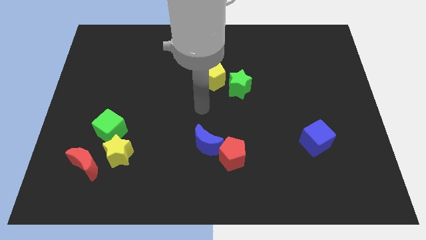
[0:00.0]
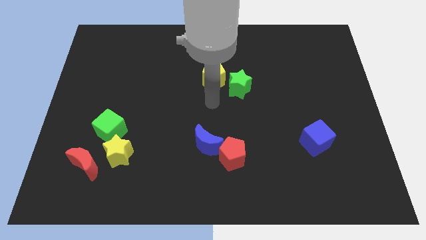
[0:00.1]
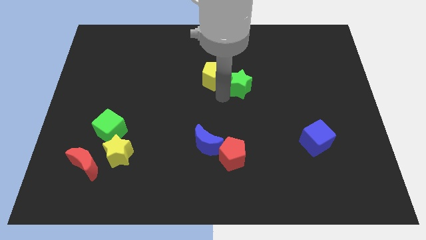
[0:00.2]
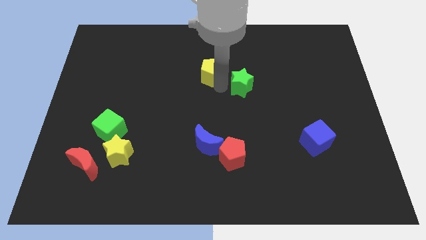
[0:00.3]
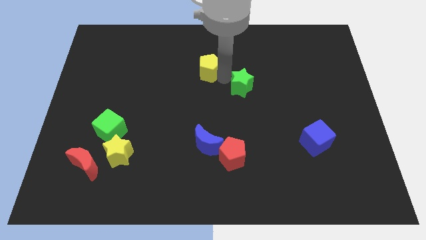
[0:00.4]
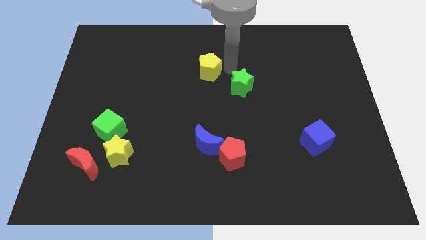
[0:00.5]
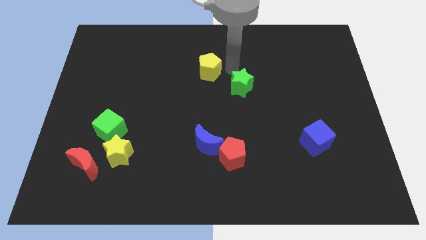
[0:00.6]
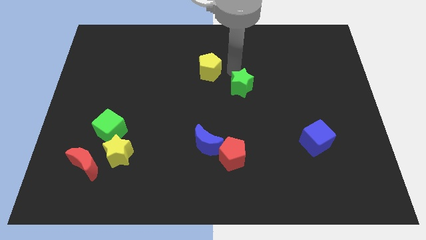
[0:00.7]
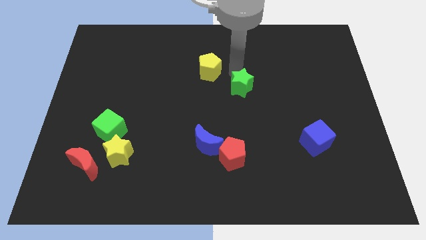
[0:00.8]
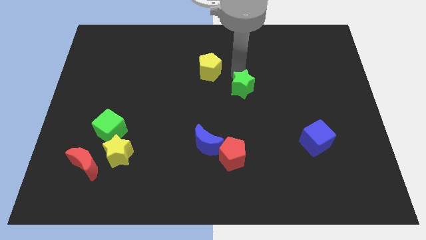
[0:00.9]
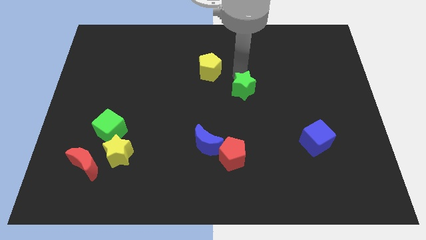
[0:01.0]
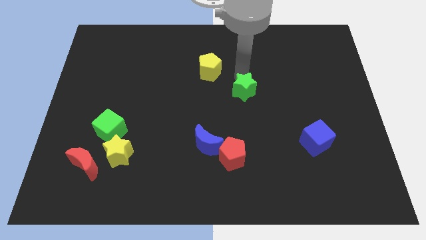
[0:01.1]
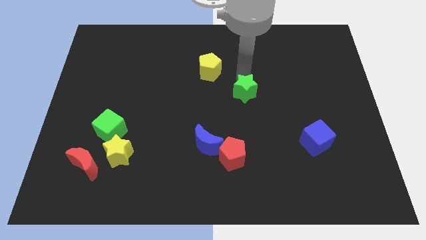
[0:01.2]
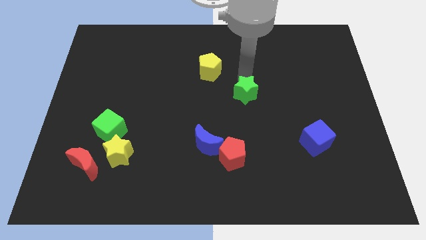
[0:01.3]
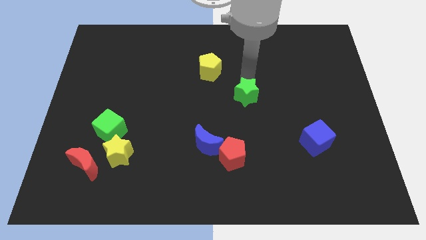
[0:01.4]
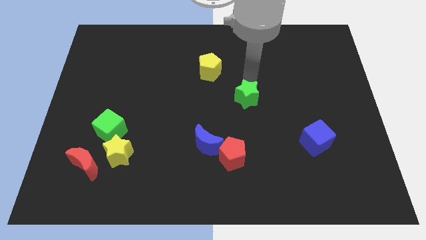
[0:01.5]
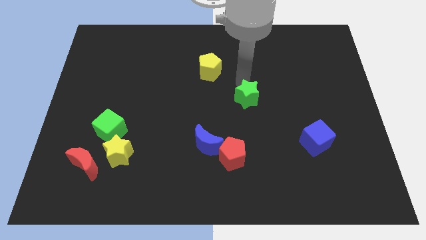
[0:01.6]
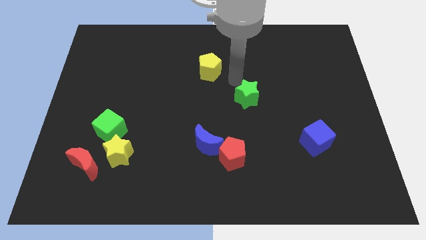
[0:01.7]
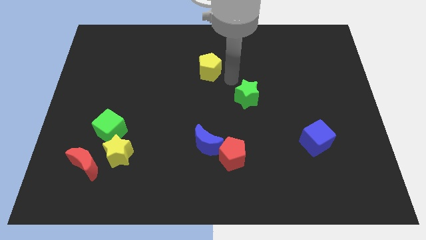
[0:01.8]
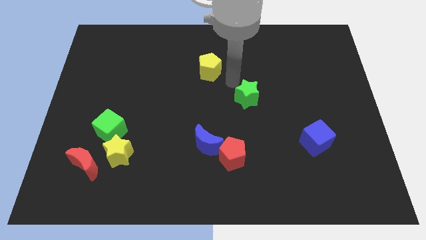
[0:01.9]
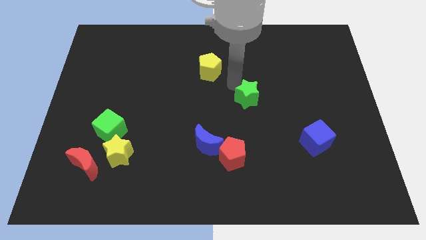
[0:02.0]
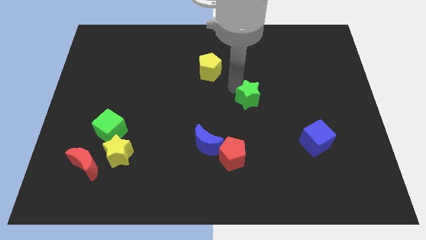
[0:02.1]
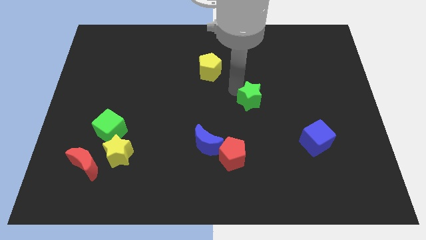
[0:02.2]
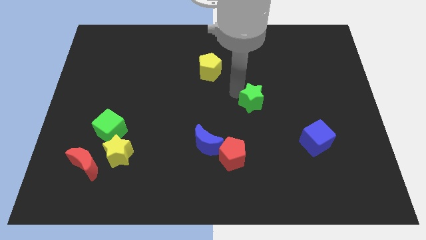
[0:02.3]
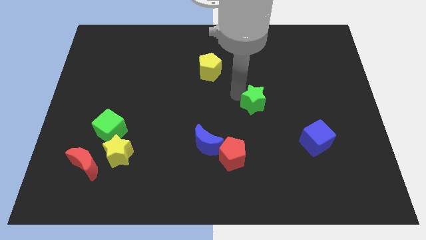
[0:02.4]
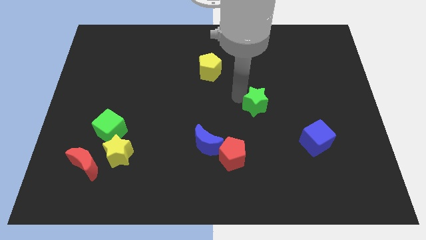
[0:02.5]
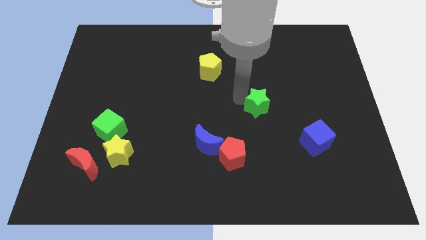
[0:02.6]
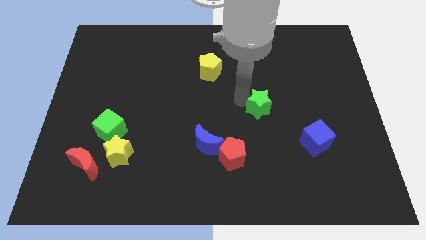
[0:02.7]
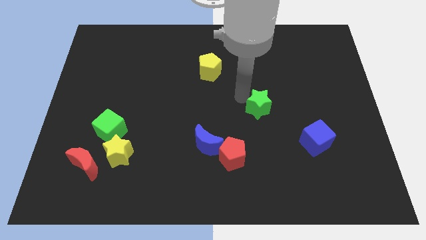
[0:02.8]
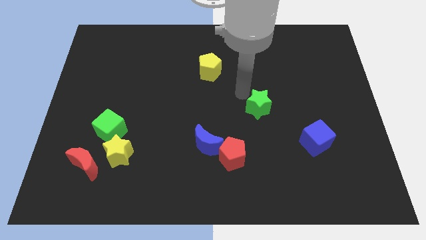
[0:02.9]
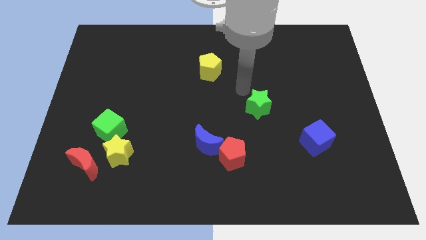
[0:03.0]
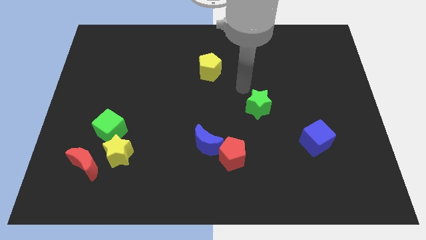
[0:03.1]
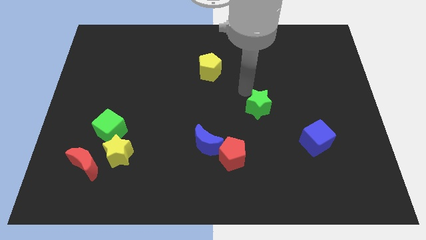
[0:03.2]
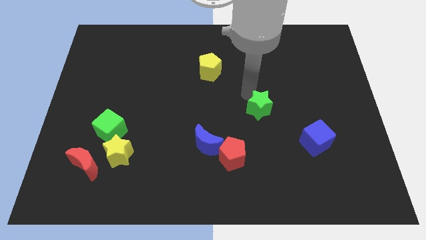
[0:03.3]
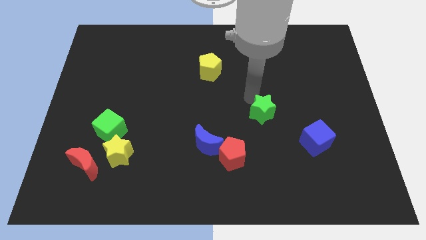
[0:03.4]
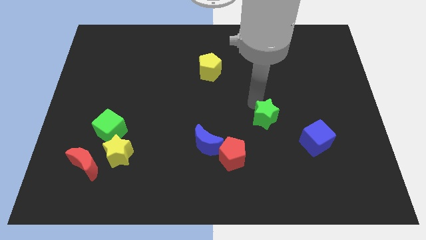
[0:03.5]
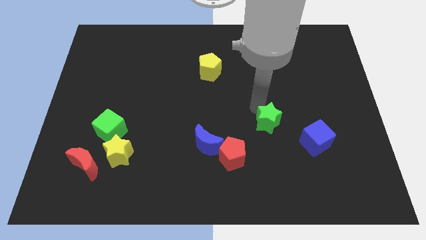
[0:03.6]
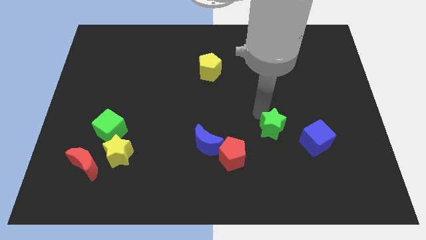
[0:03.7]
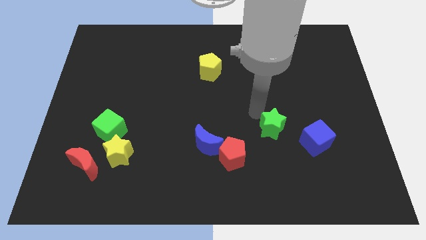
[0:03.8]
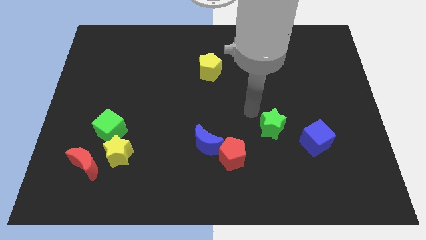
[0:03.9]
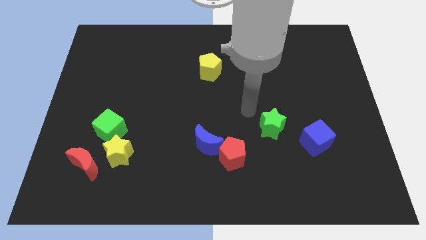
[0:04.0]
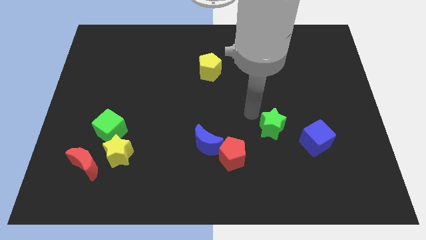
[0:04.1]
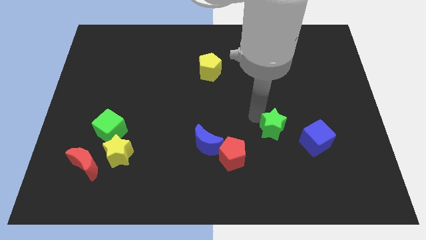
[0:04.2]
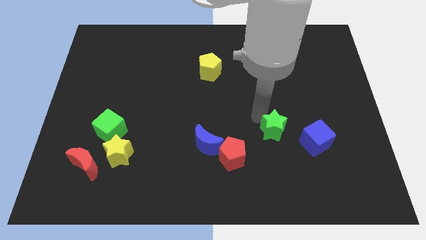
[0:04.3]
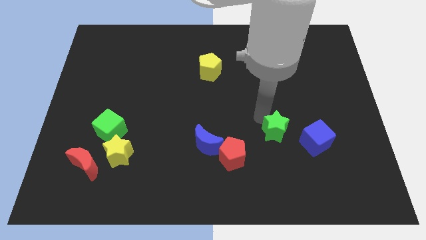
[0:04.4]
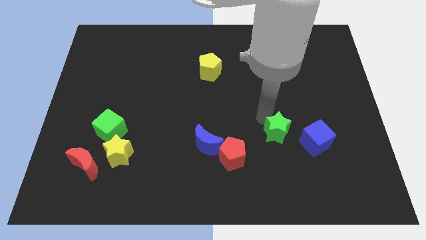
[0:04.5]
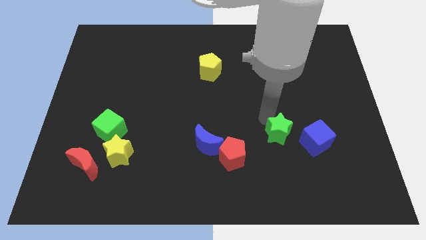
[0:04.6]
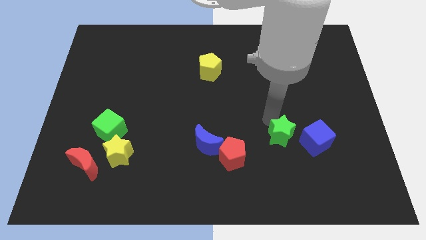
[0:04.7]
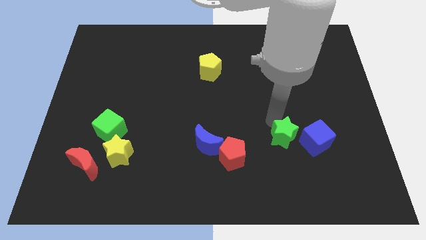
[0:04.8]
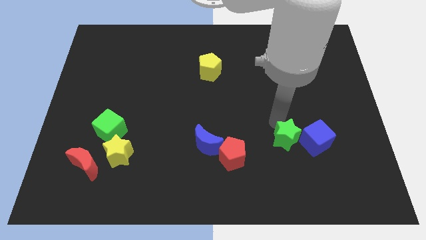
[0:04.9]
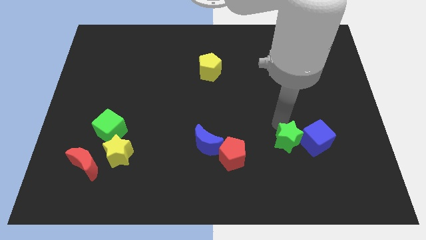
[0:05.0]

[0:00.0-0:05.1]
push the green star diagonally down and to the left of the blue cube

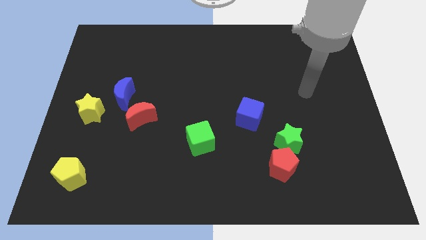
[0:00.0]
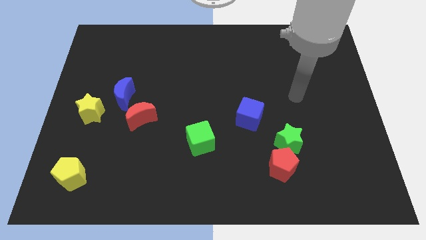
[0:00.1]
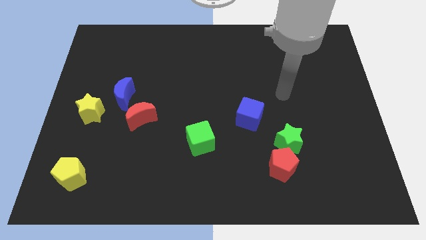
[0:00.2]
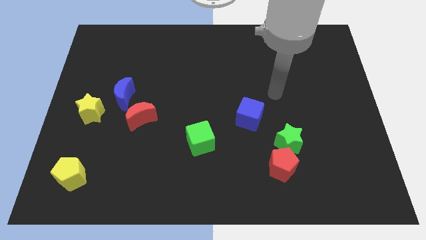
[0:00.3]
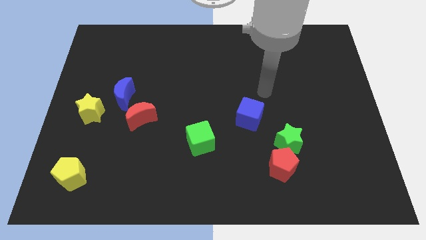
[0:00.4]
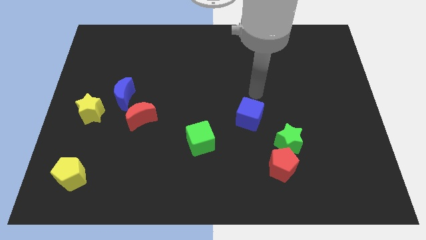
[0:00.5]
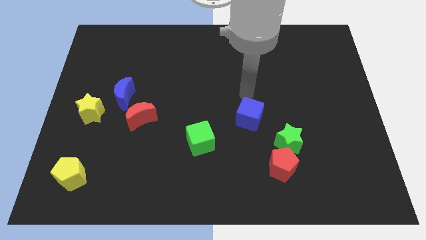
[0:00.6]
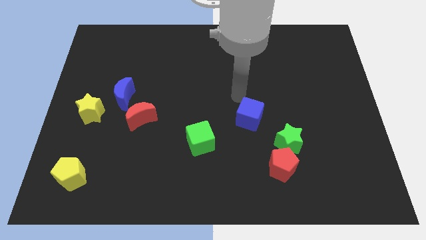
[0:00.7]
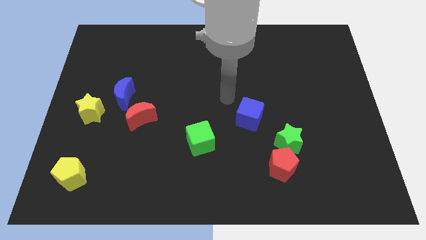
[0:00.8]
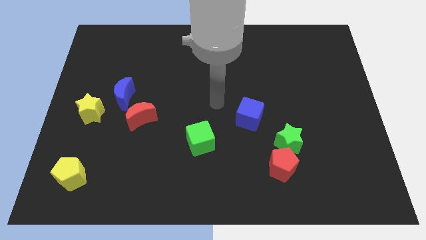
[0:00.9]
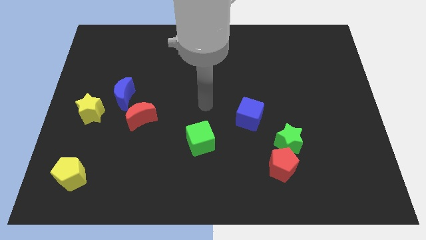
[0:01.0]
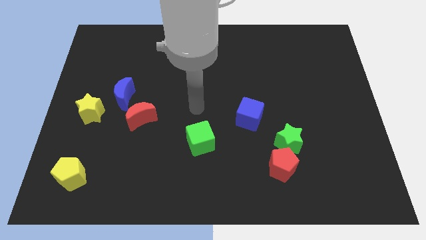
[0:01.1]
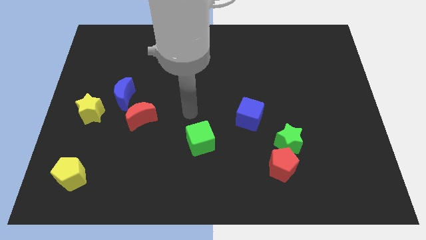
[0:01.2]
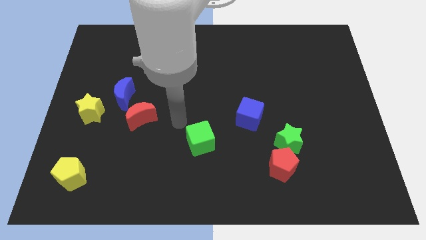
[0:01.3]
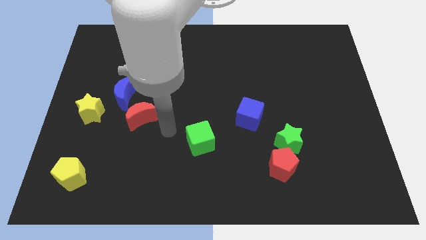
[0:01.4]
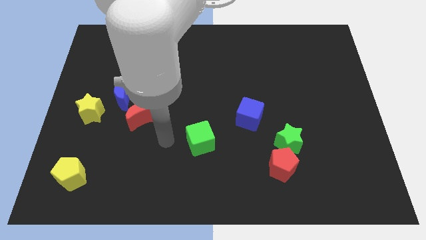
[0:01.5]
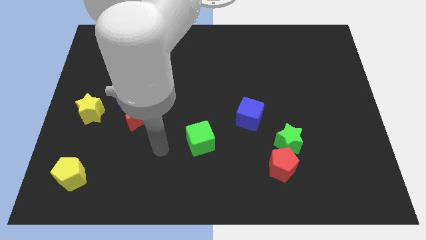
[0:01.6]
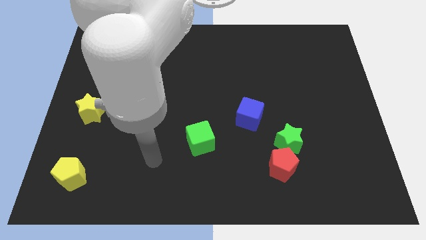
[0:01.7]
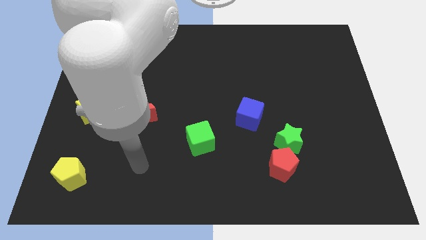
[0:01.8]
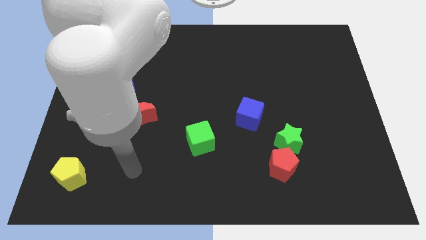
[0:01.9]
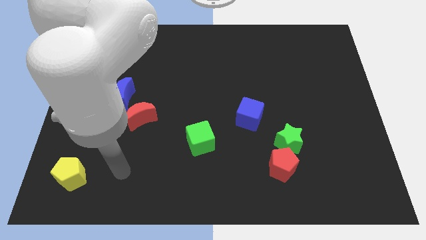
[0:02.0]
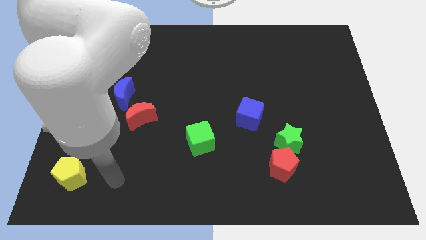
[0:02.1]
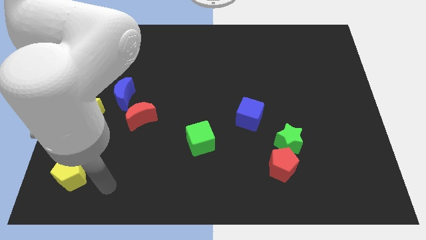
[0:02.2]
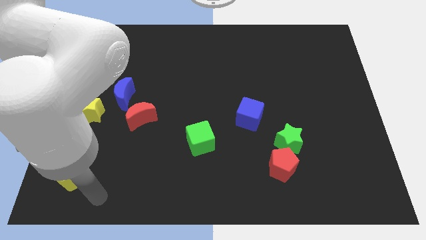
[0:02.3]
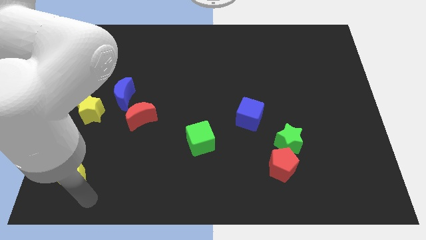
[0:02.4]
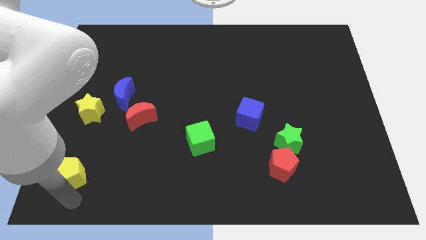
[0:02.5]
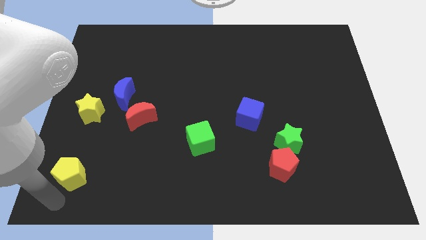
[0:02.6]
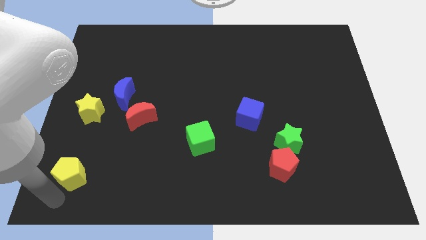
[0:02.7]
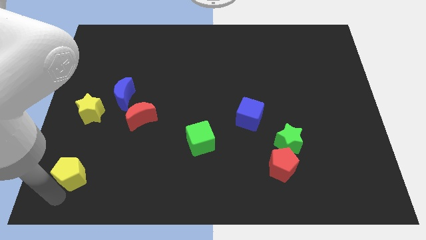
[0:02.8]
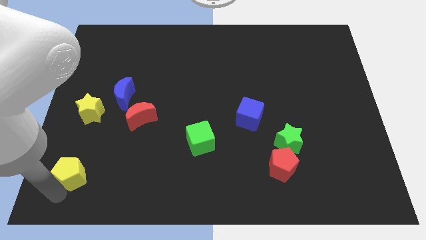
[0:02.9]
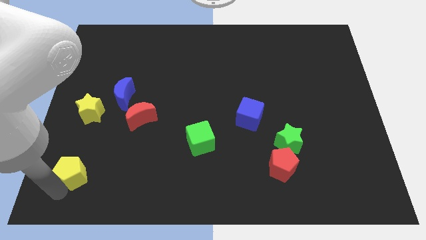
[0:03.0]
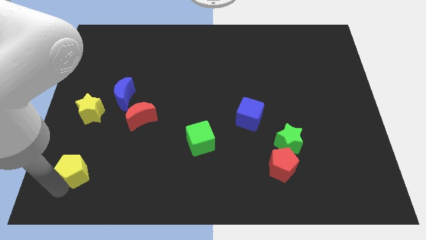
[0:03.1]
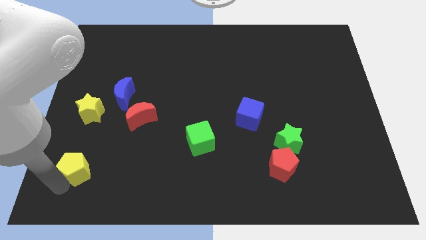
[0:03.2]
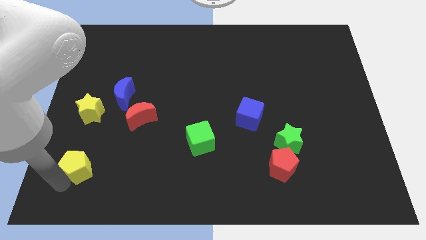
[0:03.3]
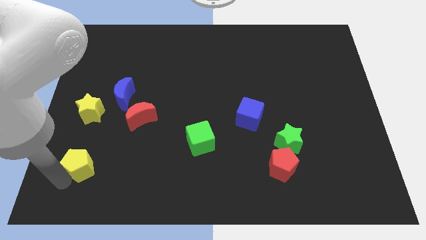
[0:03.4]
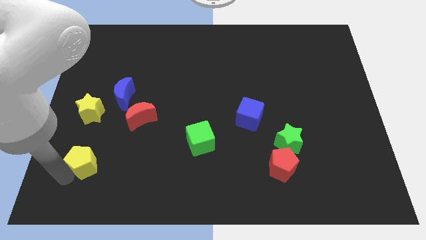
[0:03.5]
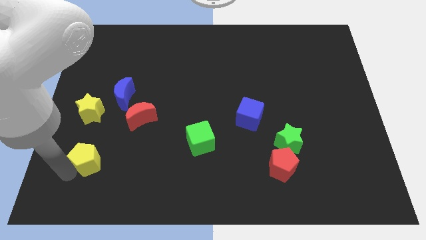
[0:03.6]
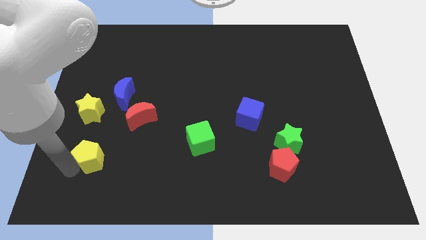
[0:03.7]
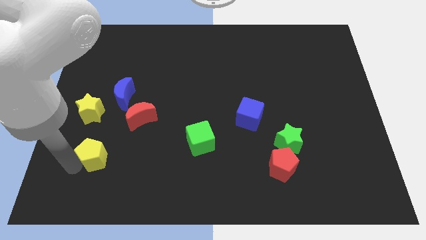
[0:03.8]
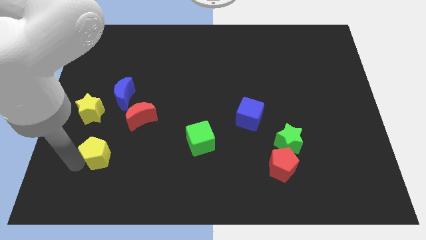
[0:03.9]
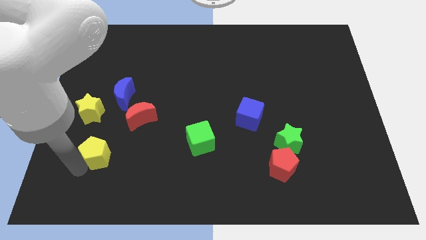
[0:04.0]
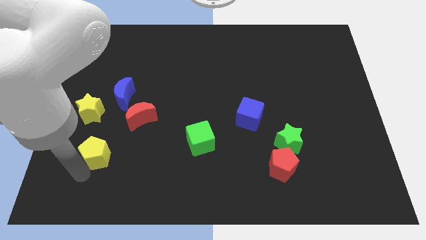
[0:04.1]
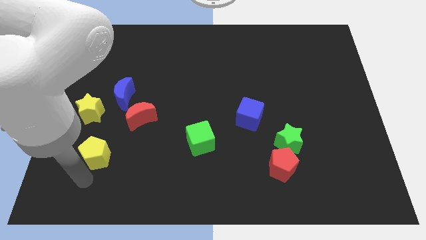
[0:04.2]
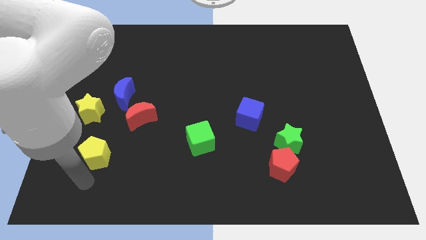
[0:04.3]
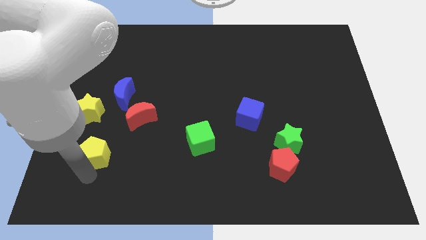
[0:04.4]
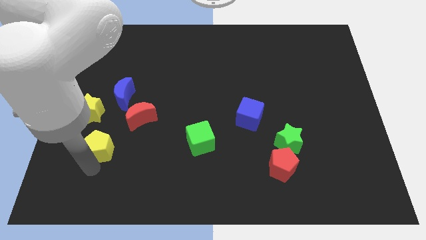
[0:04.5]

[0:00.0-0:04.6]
push the yellow pentagon diagonally down and to the right of the yellow star
